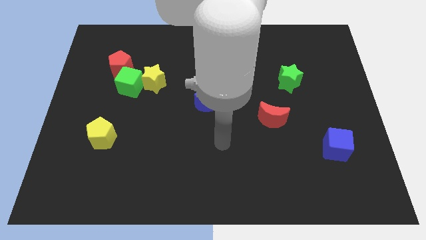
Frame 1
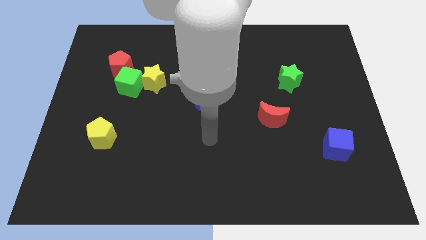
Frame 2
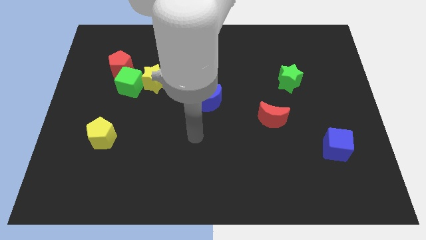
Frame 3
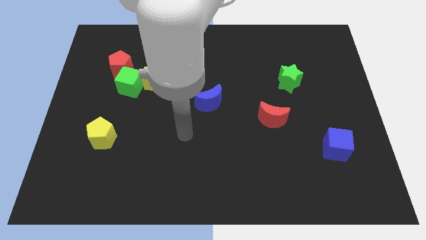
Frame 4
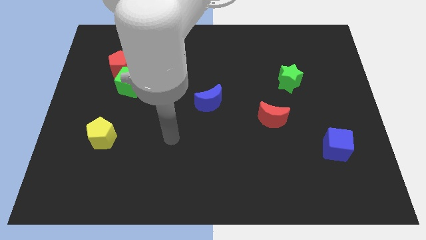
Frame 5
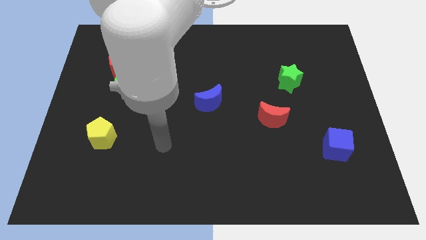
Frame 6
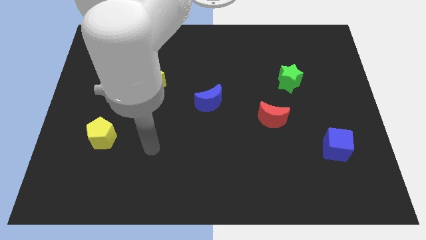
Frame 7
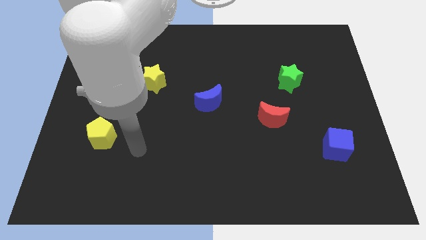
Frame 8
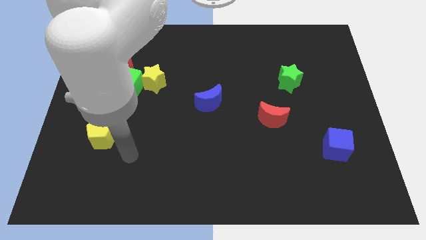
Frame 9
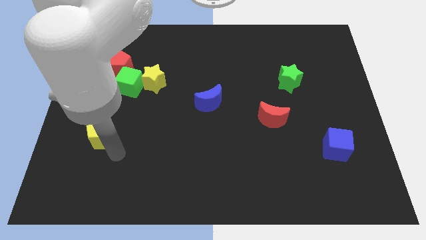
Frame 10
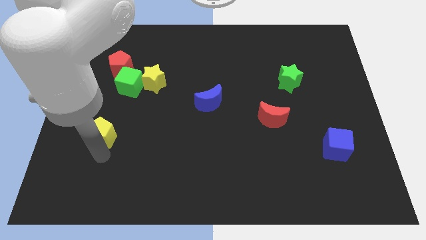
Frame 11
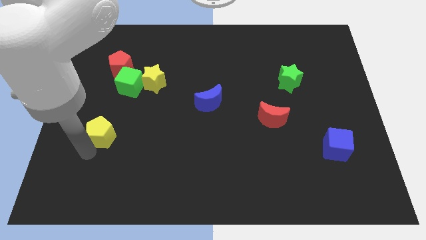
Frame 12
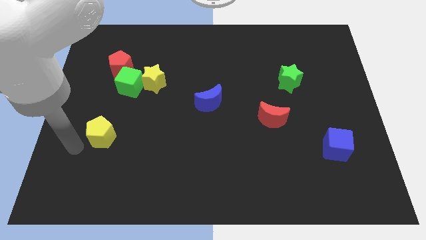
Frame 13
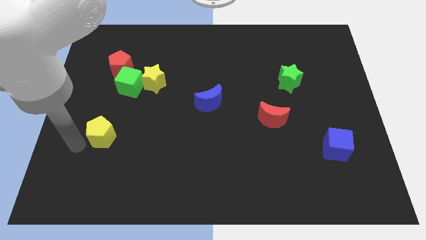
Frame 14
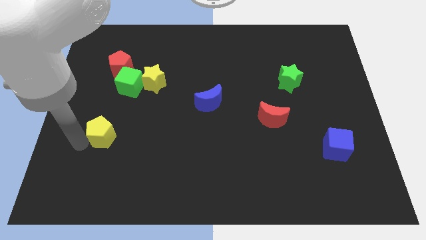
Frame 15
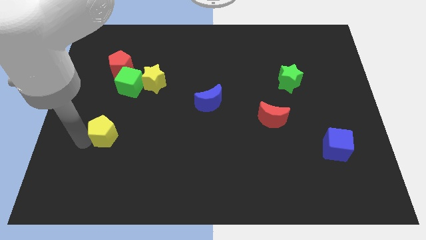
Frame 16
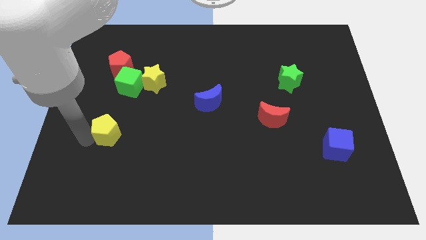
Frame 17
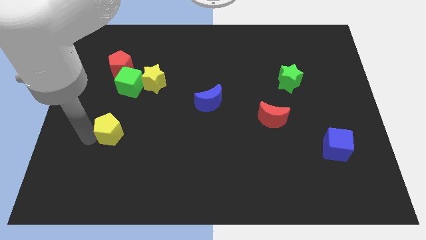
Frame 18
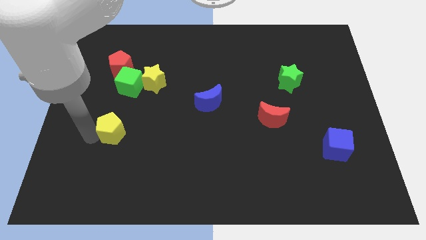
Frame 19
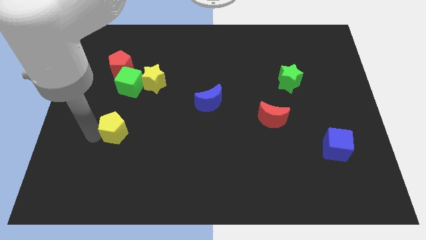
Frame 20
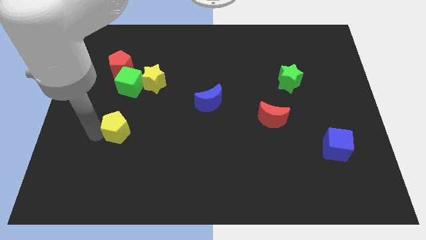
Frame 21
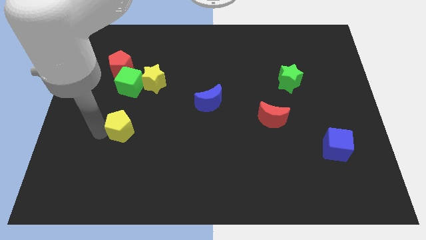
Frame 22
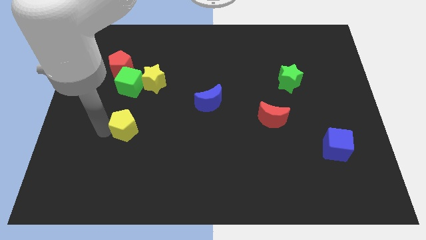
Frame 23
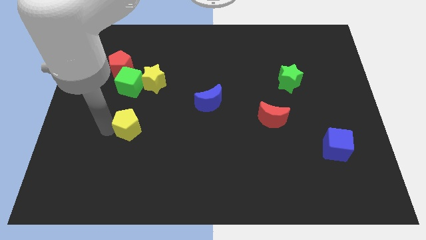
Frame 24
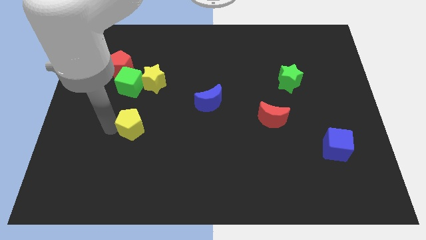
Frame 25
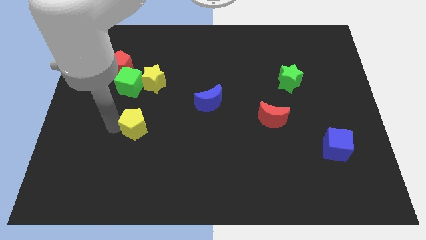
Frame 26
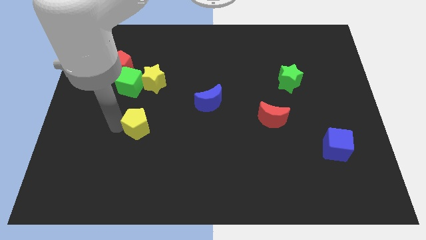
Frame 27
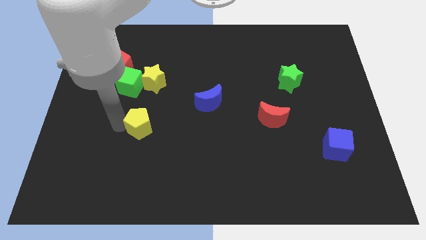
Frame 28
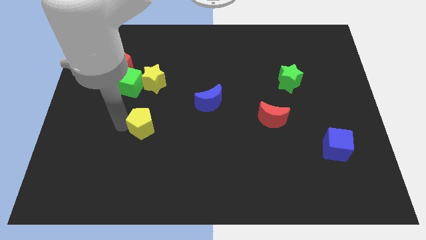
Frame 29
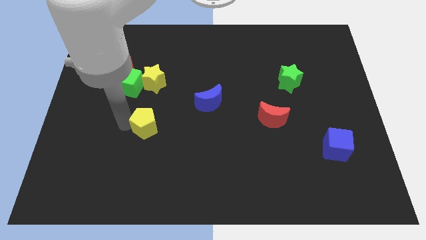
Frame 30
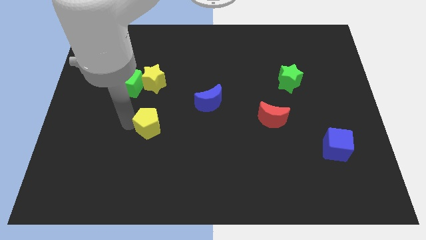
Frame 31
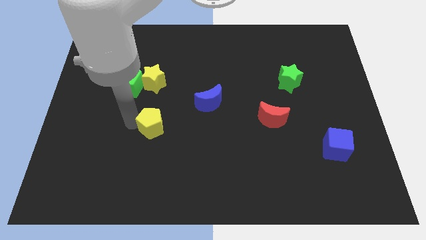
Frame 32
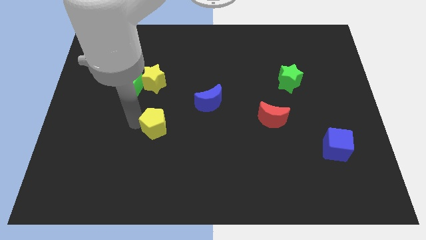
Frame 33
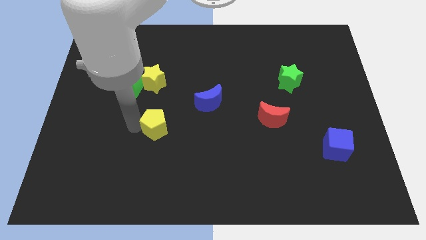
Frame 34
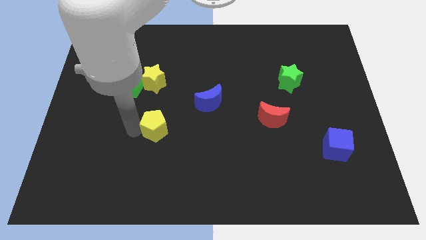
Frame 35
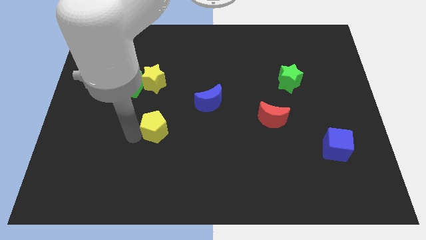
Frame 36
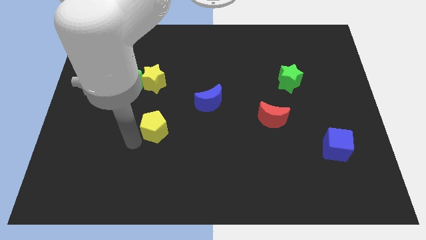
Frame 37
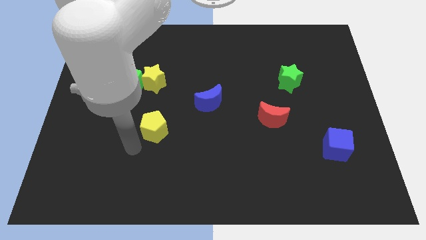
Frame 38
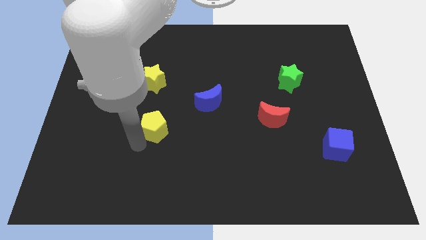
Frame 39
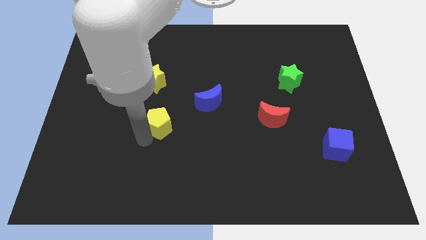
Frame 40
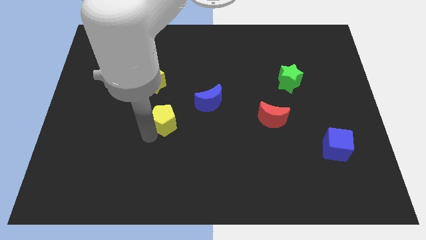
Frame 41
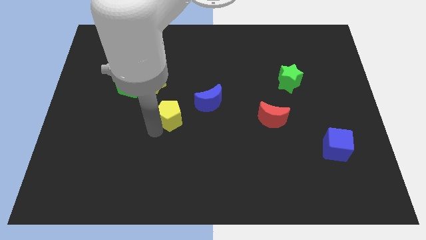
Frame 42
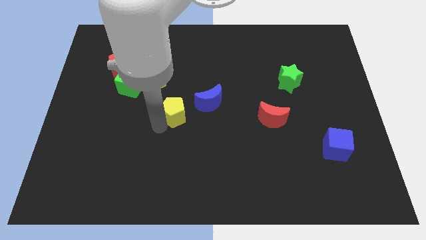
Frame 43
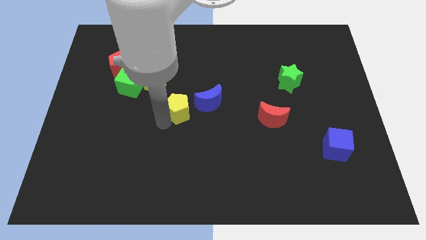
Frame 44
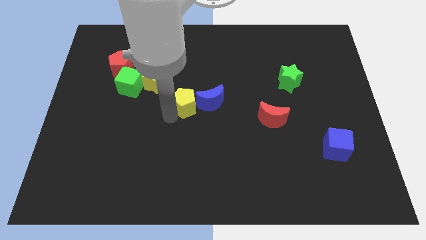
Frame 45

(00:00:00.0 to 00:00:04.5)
move the yellow pentagon next to the blue moon

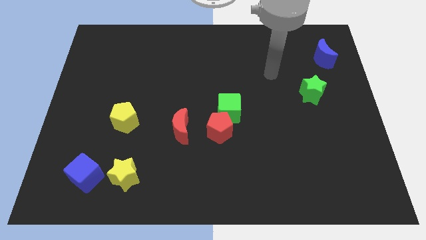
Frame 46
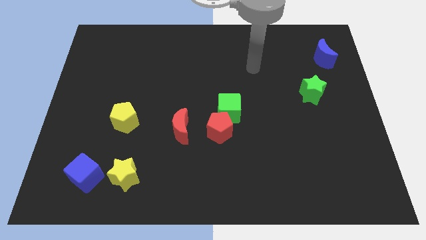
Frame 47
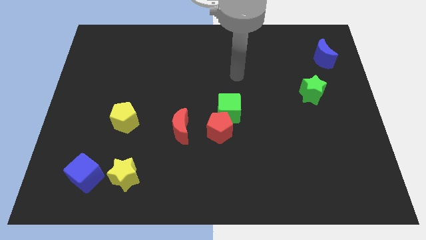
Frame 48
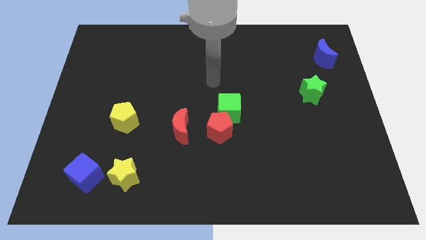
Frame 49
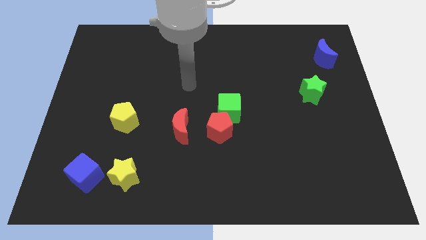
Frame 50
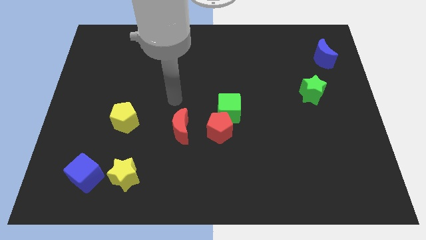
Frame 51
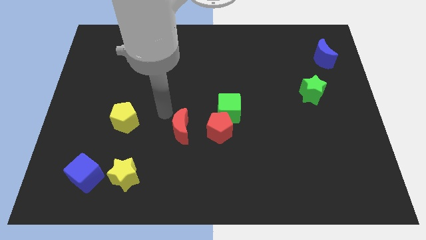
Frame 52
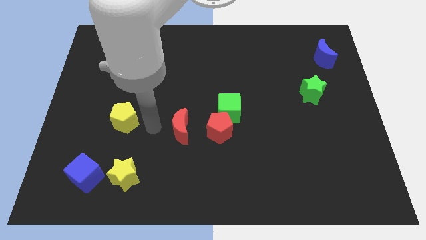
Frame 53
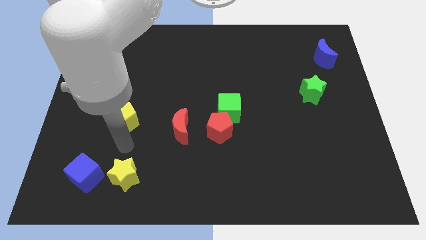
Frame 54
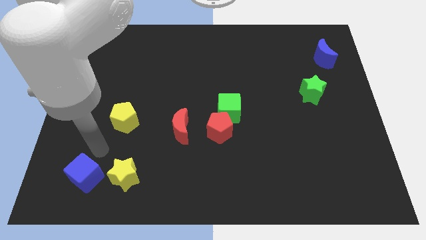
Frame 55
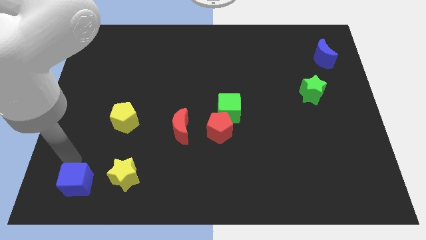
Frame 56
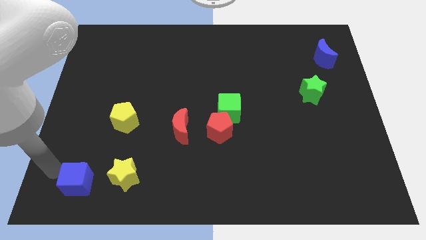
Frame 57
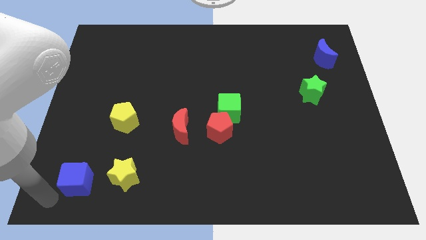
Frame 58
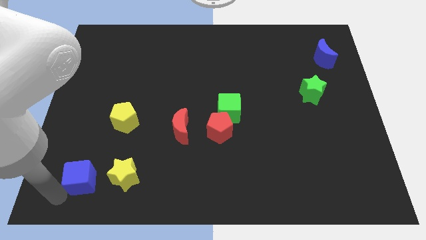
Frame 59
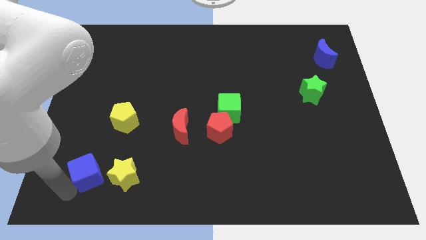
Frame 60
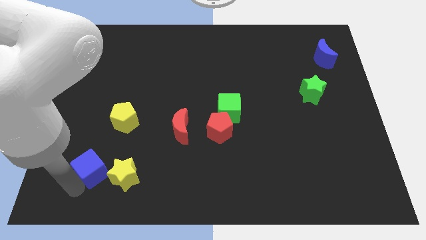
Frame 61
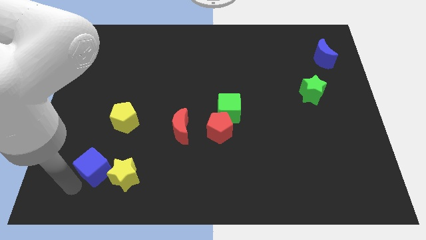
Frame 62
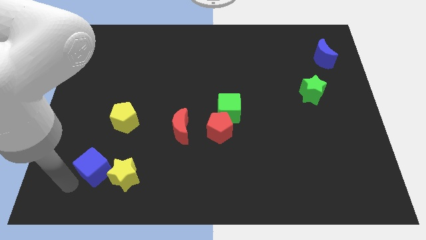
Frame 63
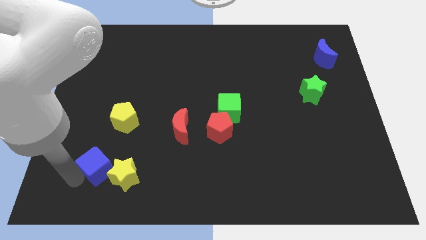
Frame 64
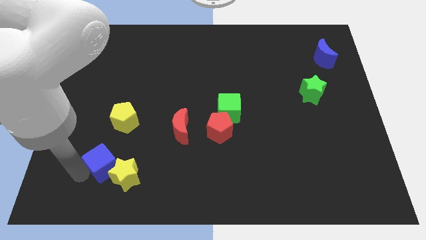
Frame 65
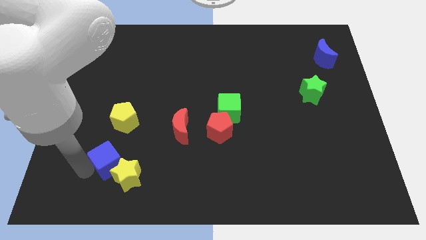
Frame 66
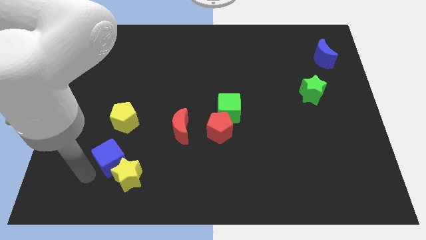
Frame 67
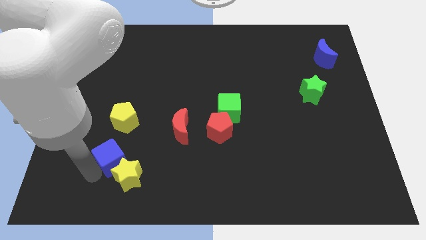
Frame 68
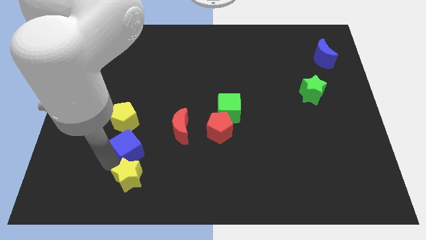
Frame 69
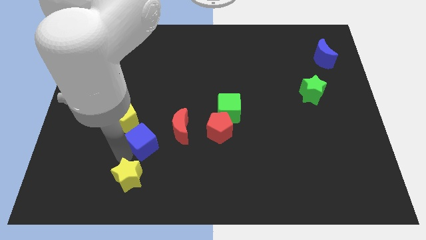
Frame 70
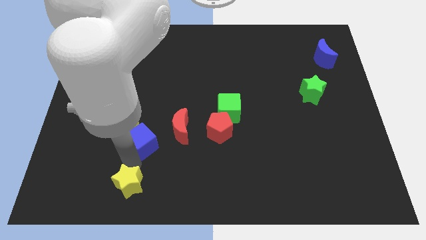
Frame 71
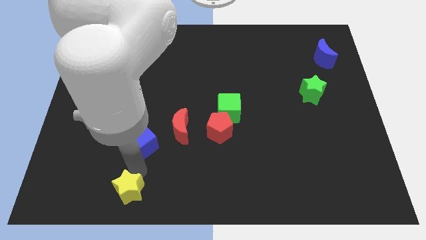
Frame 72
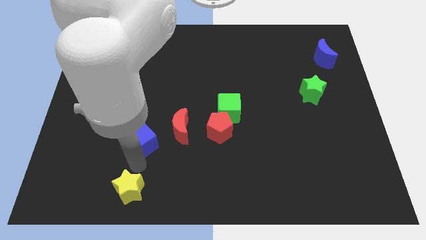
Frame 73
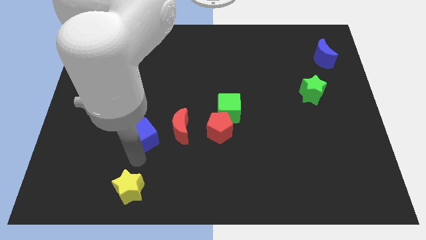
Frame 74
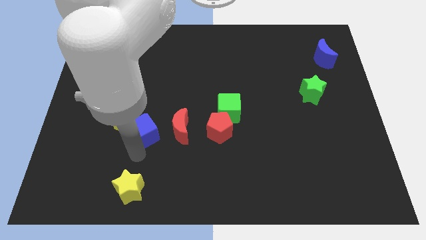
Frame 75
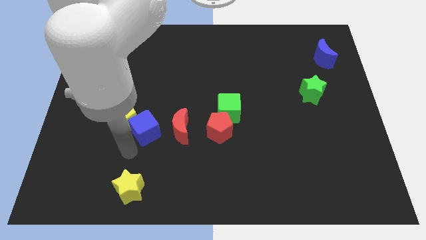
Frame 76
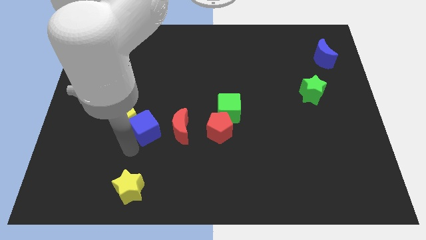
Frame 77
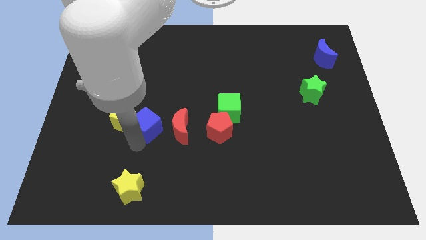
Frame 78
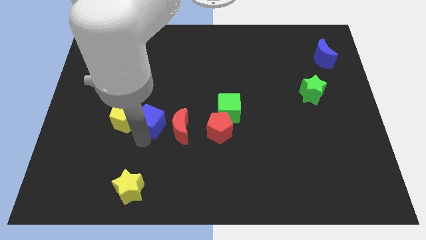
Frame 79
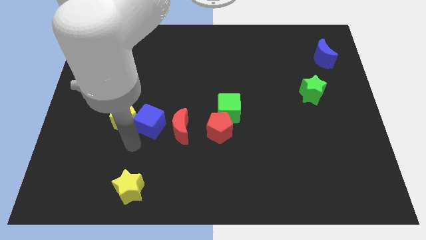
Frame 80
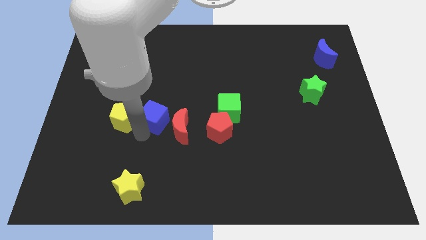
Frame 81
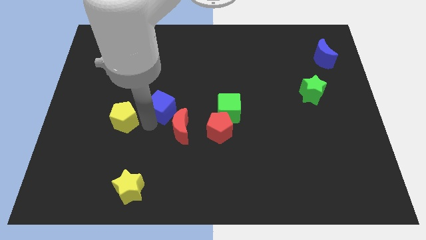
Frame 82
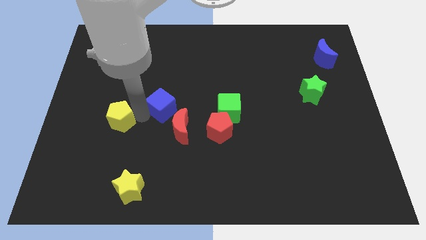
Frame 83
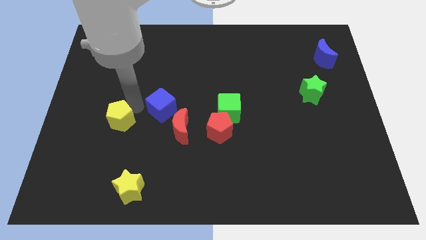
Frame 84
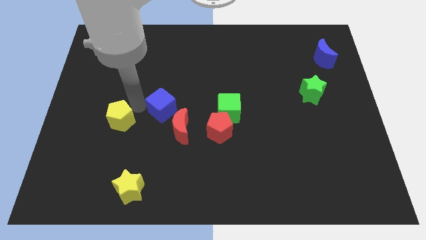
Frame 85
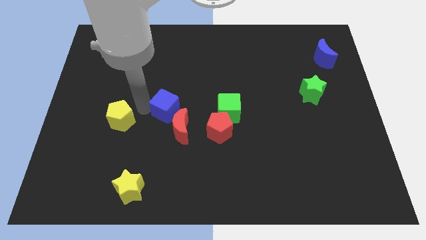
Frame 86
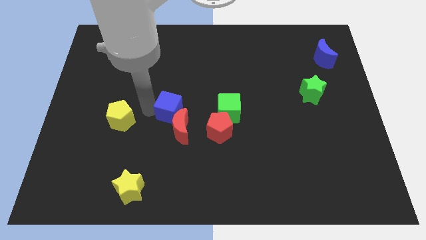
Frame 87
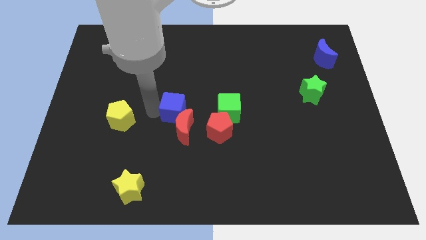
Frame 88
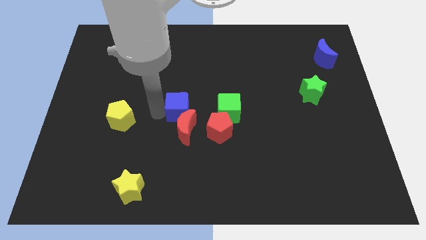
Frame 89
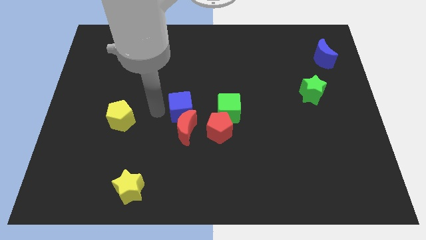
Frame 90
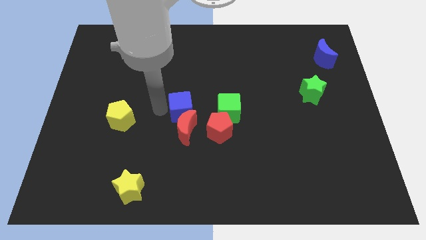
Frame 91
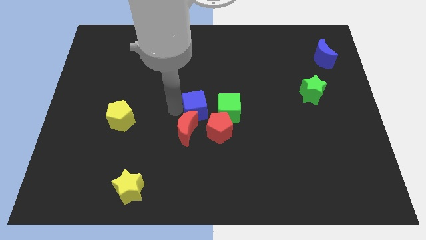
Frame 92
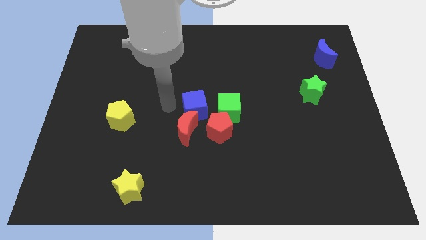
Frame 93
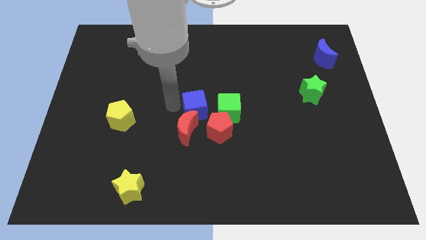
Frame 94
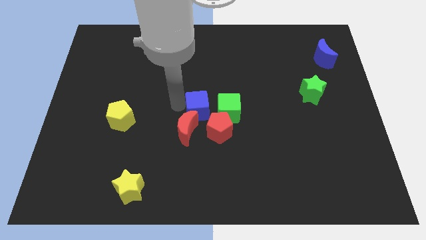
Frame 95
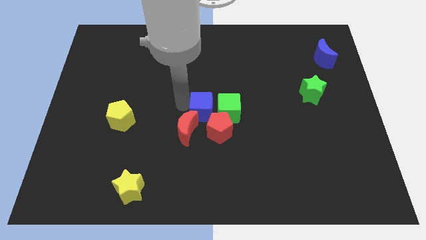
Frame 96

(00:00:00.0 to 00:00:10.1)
put the blue cube towards the green cube
